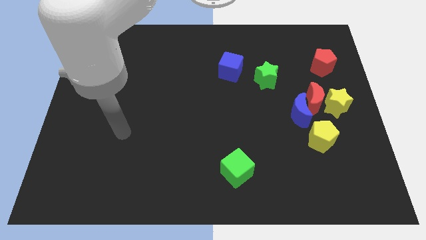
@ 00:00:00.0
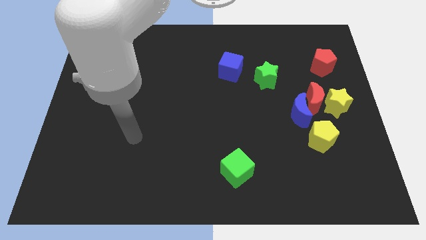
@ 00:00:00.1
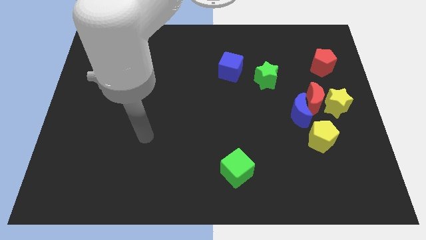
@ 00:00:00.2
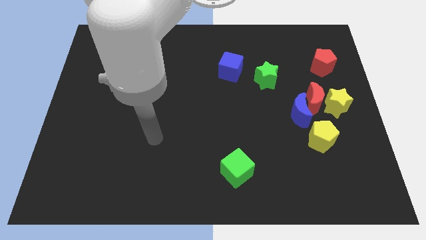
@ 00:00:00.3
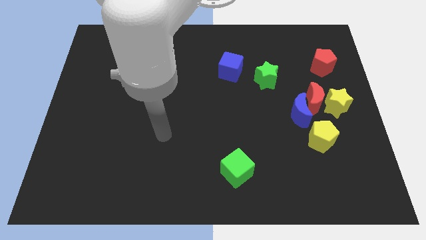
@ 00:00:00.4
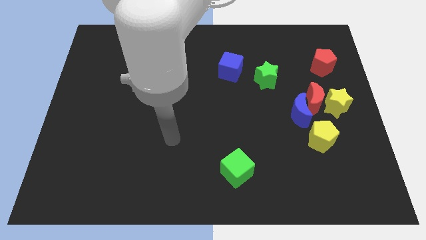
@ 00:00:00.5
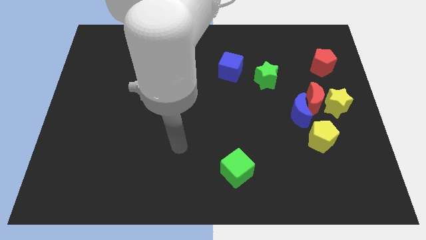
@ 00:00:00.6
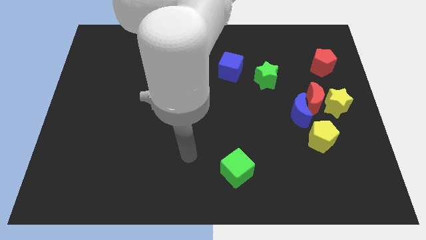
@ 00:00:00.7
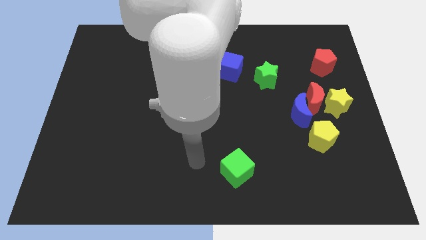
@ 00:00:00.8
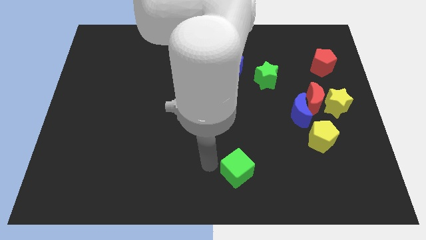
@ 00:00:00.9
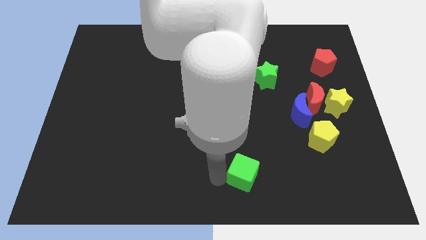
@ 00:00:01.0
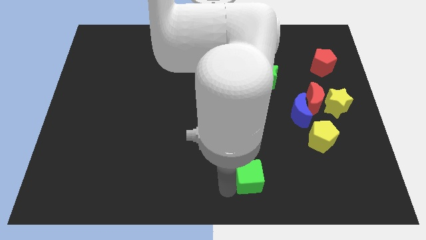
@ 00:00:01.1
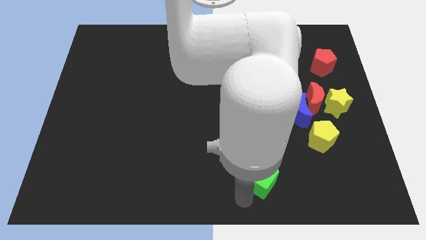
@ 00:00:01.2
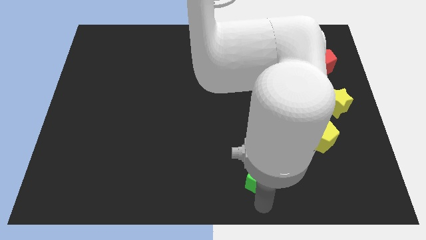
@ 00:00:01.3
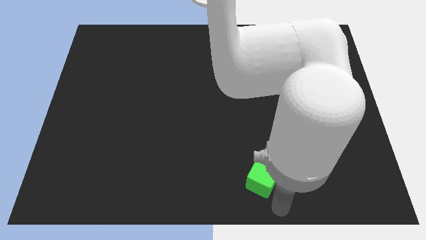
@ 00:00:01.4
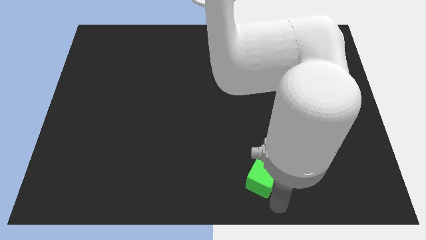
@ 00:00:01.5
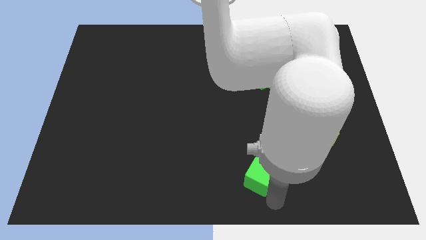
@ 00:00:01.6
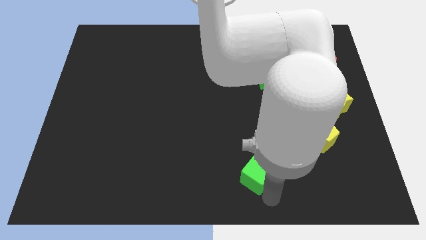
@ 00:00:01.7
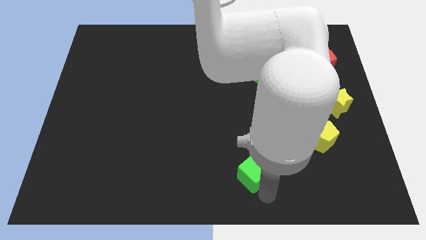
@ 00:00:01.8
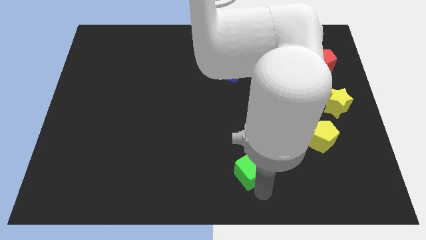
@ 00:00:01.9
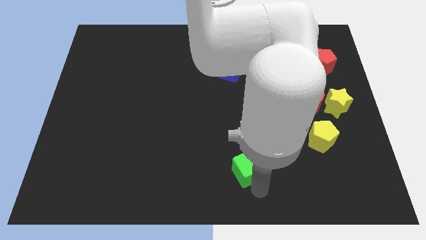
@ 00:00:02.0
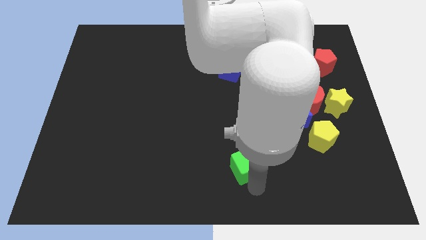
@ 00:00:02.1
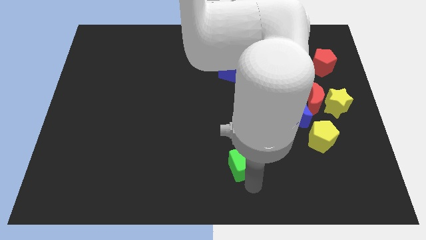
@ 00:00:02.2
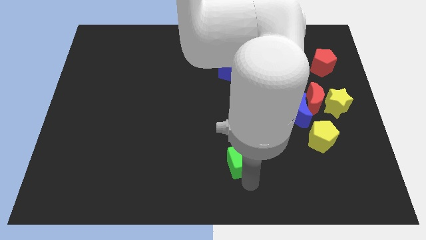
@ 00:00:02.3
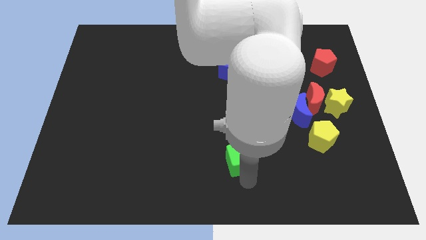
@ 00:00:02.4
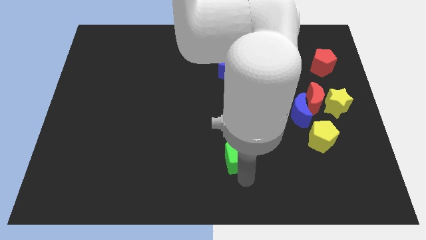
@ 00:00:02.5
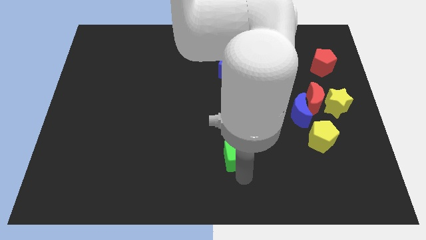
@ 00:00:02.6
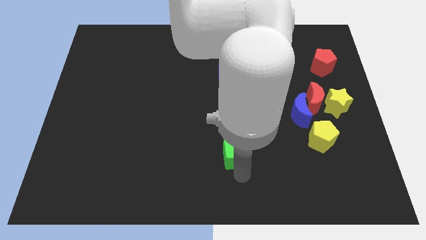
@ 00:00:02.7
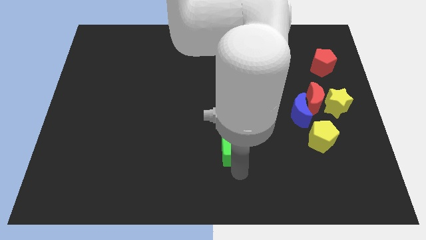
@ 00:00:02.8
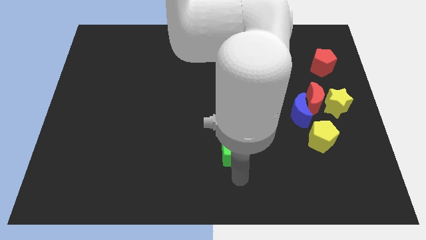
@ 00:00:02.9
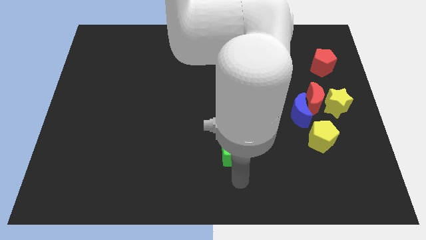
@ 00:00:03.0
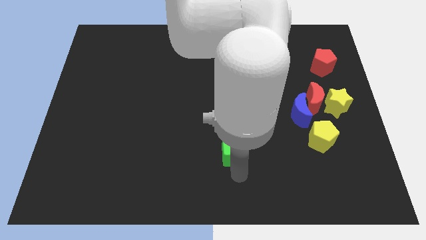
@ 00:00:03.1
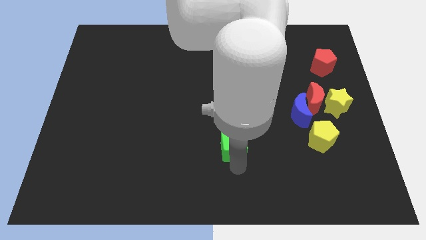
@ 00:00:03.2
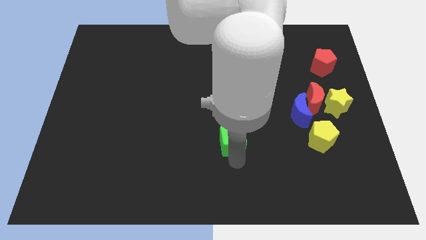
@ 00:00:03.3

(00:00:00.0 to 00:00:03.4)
slightly move the green cube up

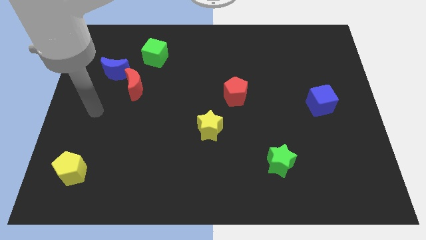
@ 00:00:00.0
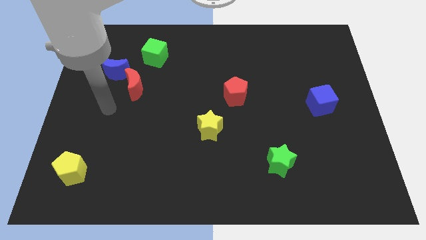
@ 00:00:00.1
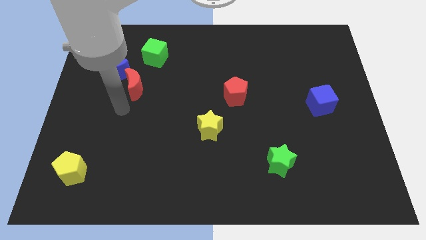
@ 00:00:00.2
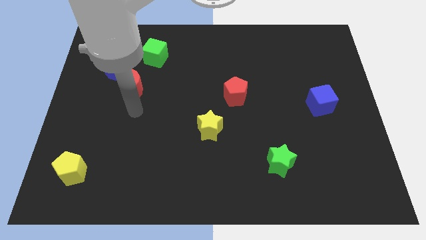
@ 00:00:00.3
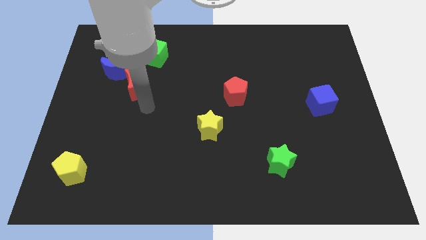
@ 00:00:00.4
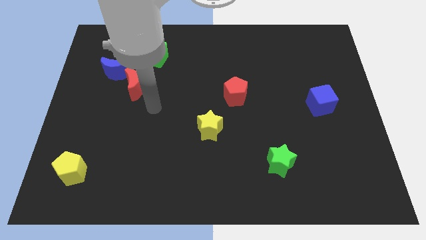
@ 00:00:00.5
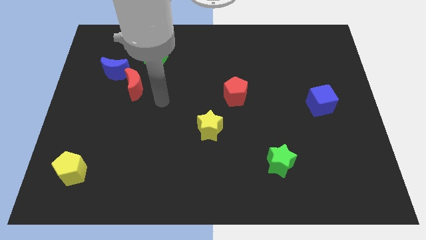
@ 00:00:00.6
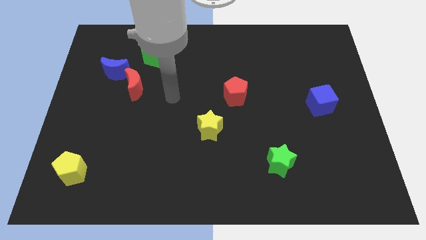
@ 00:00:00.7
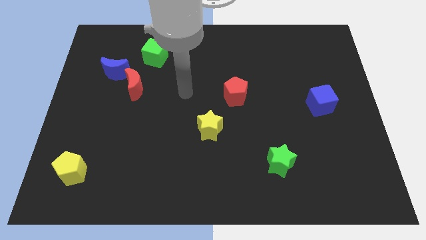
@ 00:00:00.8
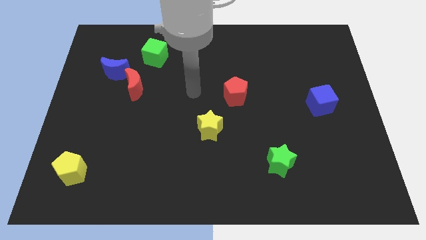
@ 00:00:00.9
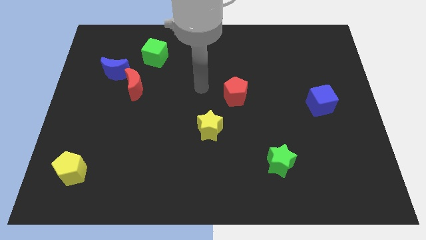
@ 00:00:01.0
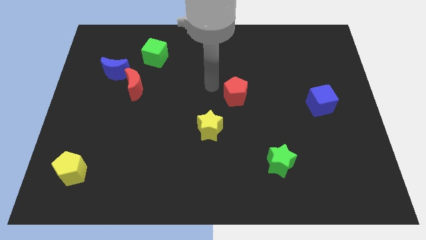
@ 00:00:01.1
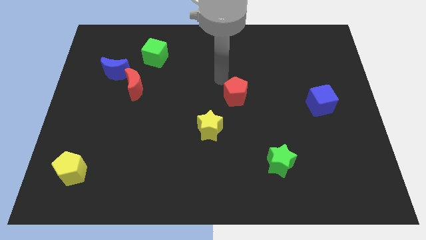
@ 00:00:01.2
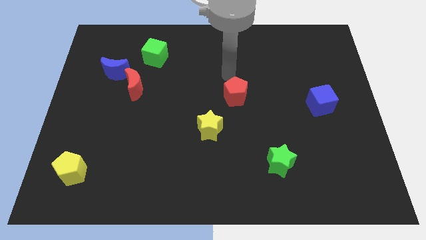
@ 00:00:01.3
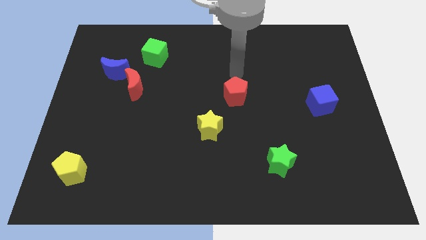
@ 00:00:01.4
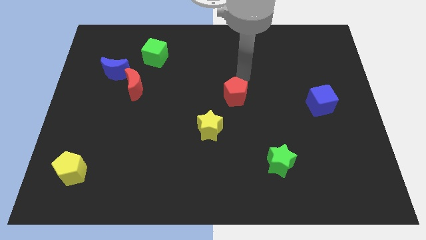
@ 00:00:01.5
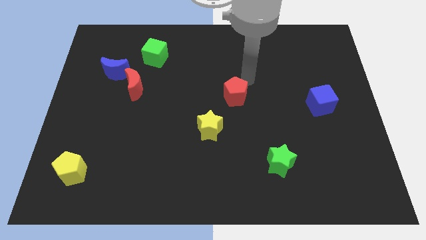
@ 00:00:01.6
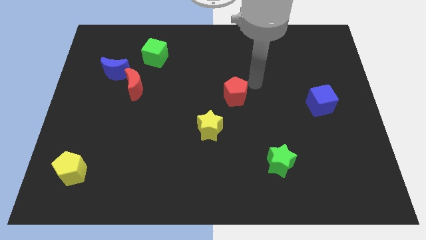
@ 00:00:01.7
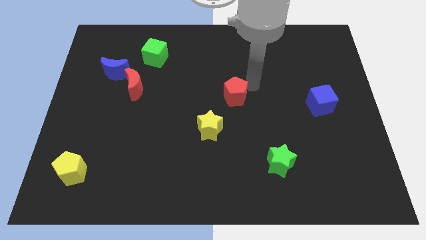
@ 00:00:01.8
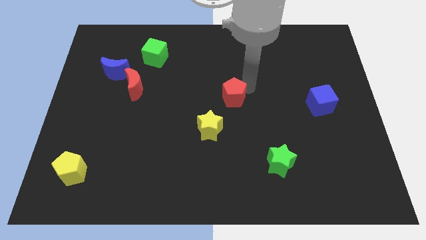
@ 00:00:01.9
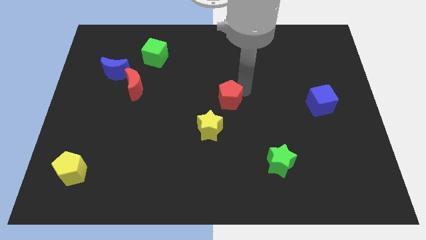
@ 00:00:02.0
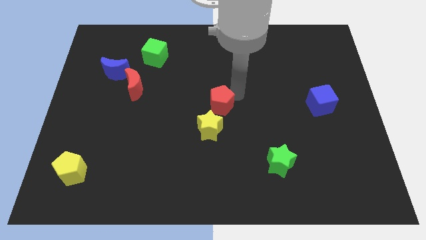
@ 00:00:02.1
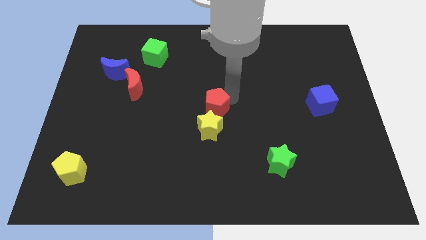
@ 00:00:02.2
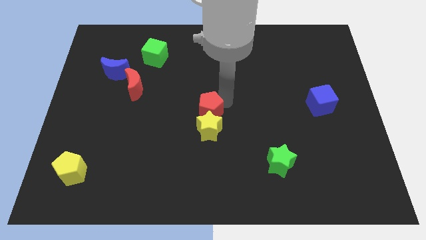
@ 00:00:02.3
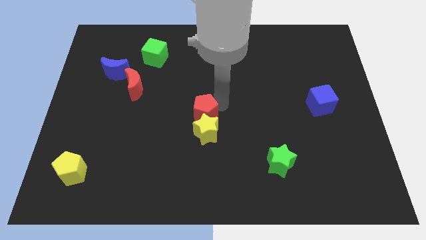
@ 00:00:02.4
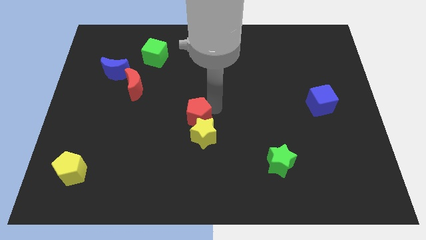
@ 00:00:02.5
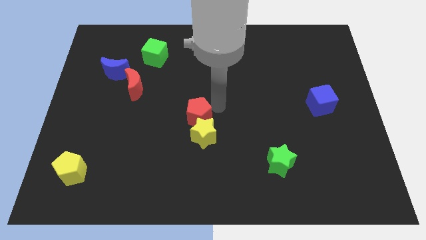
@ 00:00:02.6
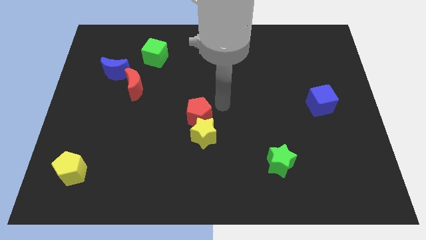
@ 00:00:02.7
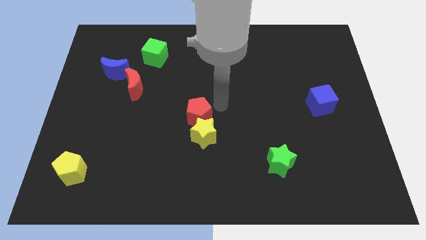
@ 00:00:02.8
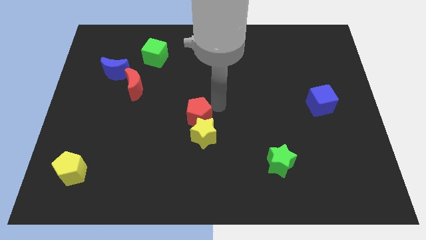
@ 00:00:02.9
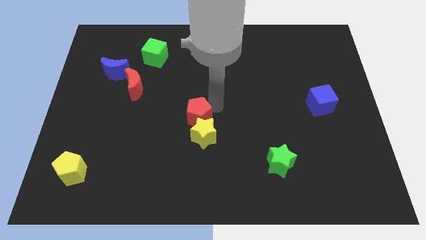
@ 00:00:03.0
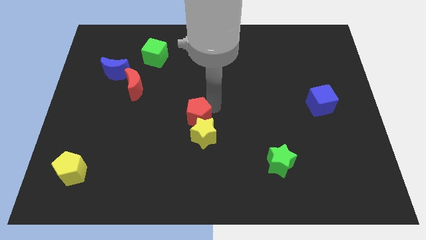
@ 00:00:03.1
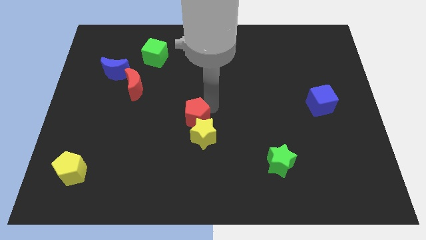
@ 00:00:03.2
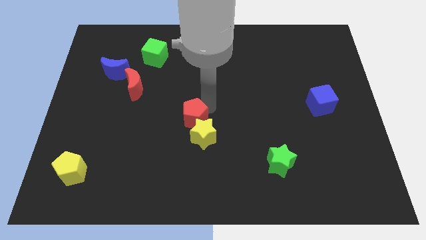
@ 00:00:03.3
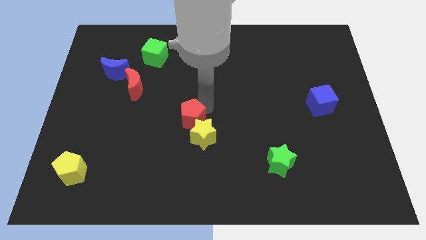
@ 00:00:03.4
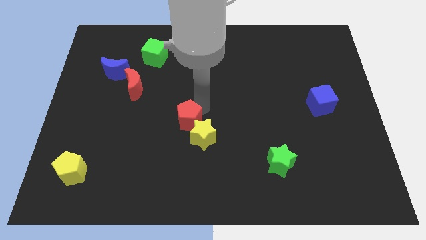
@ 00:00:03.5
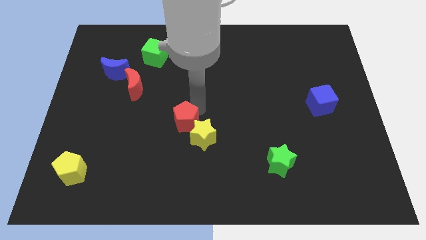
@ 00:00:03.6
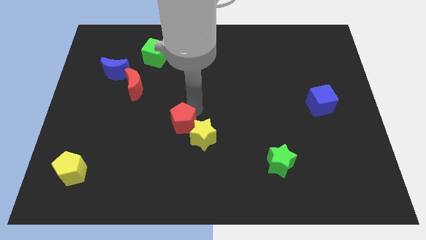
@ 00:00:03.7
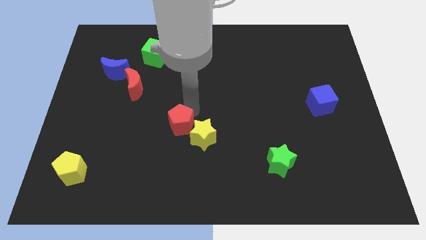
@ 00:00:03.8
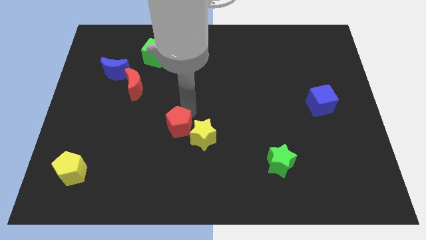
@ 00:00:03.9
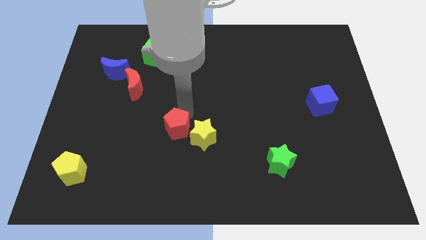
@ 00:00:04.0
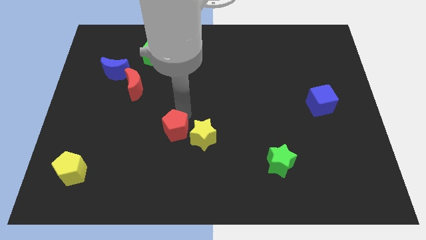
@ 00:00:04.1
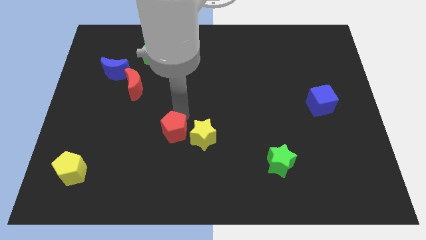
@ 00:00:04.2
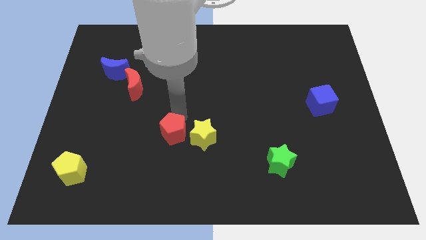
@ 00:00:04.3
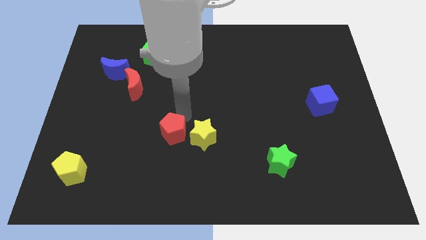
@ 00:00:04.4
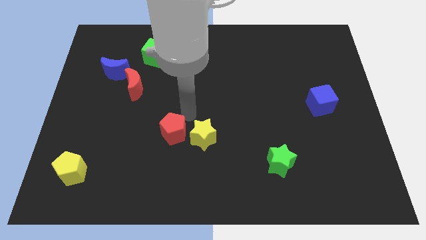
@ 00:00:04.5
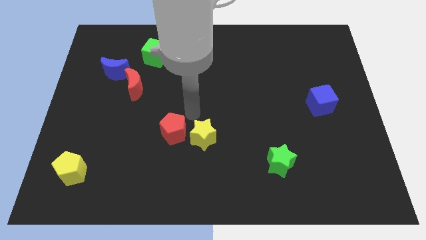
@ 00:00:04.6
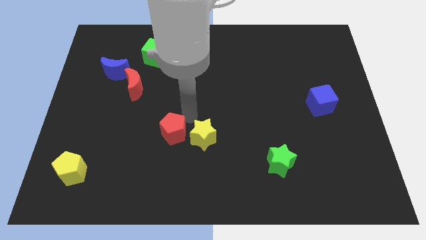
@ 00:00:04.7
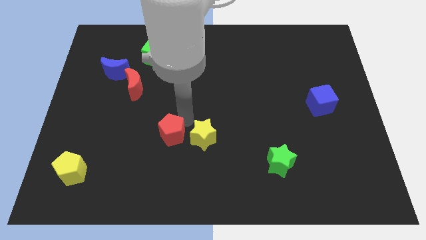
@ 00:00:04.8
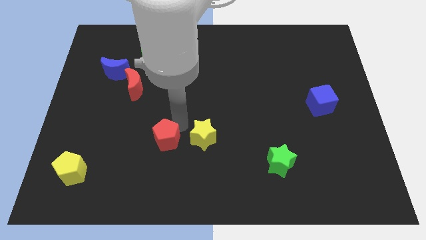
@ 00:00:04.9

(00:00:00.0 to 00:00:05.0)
move the red pentagon diagonally down and left
